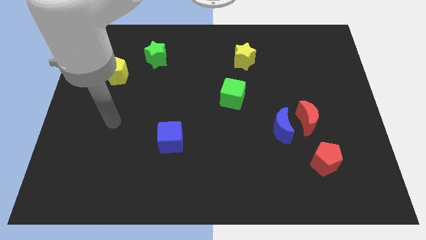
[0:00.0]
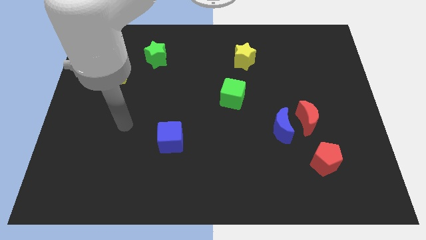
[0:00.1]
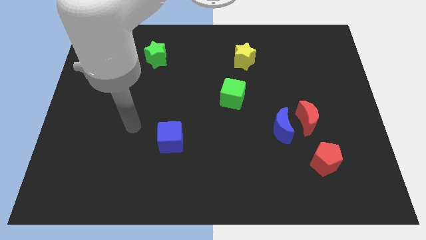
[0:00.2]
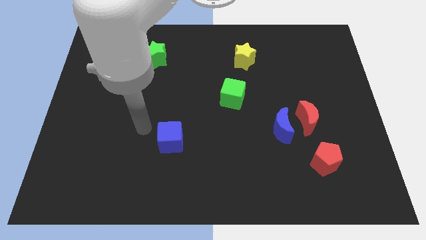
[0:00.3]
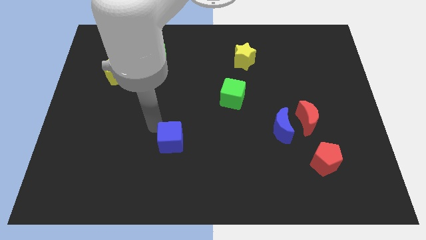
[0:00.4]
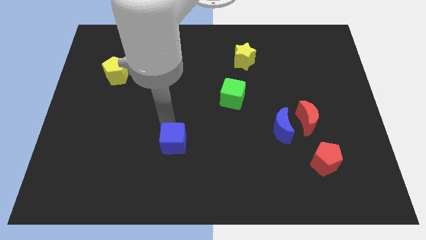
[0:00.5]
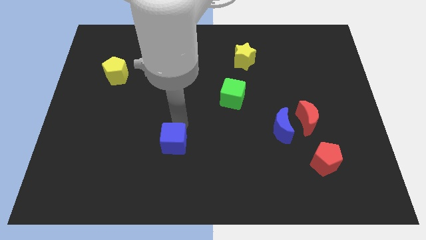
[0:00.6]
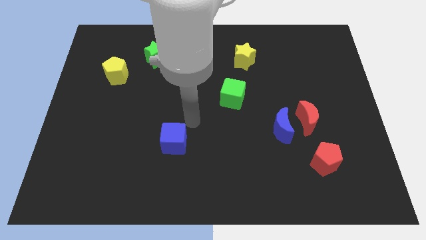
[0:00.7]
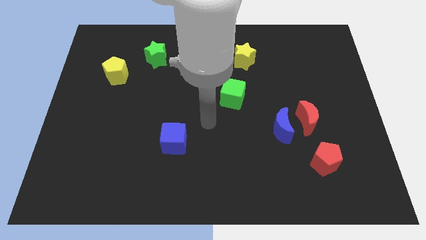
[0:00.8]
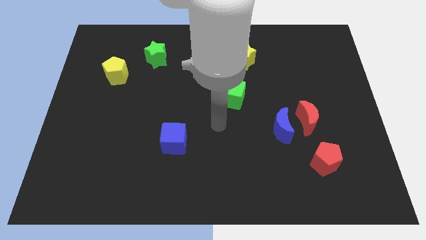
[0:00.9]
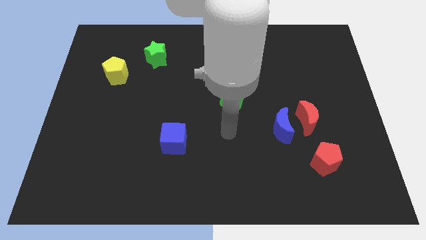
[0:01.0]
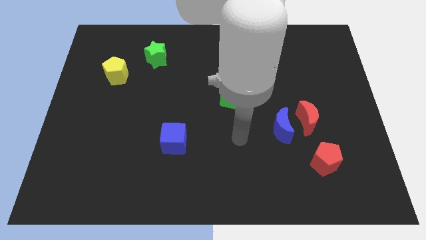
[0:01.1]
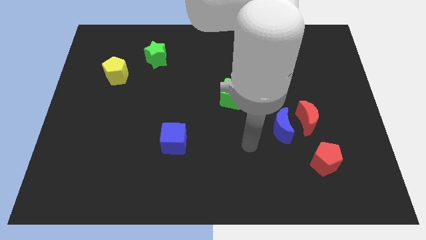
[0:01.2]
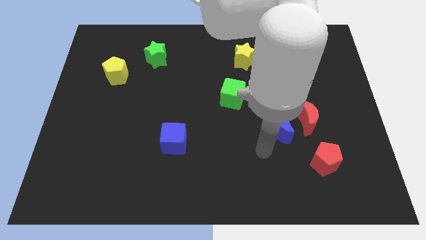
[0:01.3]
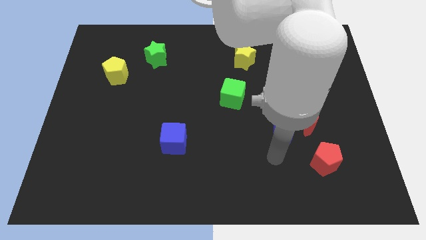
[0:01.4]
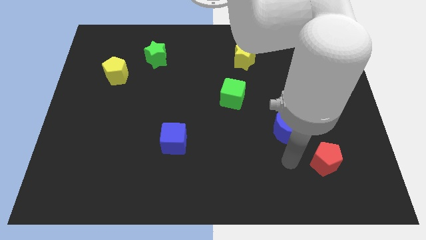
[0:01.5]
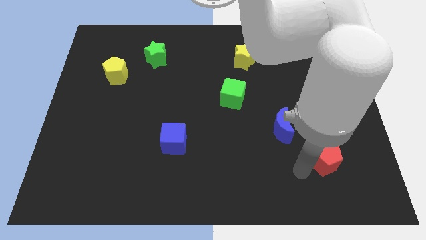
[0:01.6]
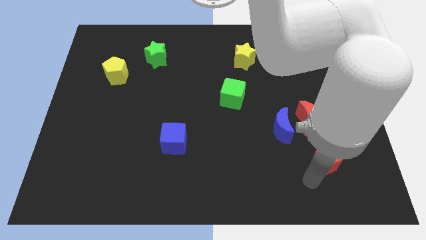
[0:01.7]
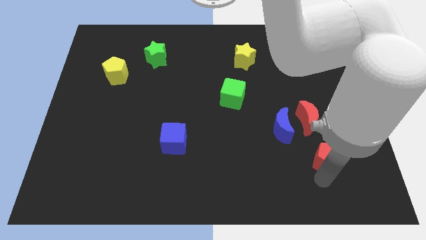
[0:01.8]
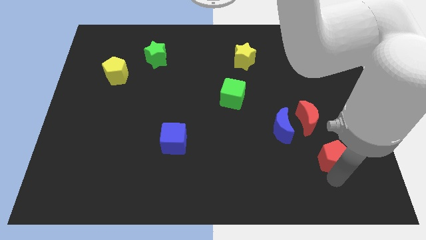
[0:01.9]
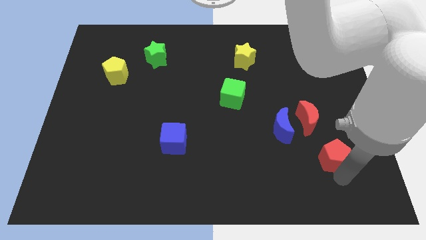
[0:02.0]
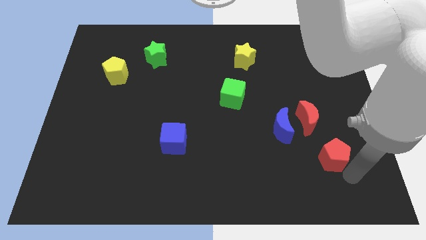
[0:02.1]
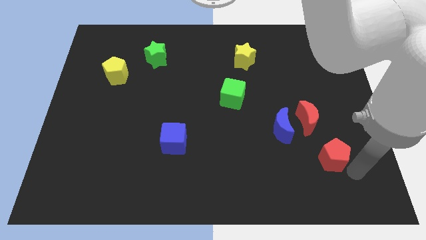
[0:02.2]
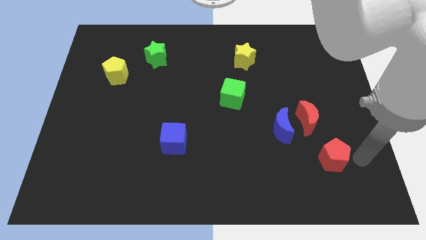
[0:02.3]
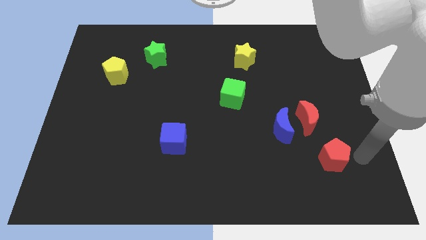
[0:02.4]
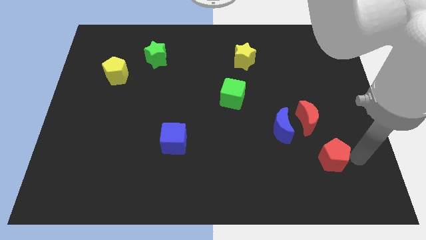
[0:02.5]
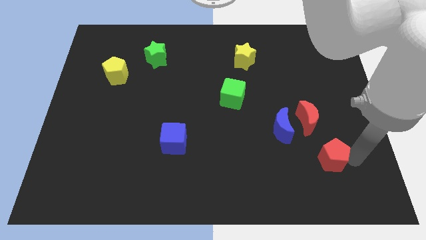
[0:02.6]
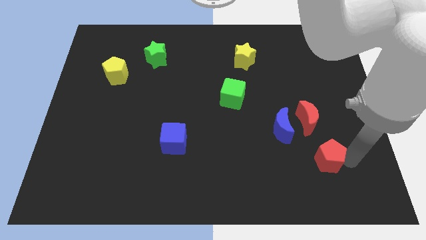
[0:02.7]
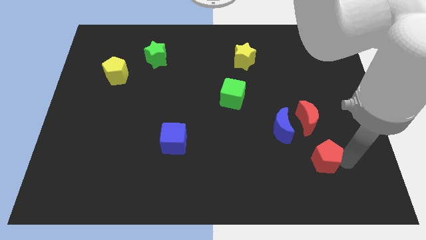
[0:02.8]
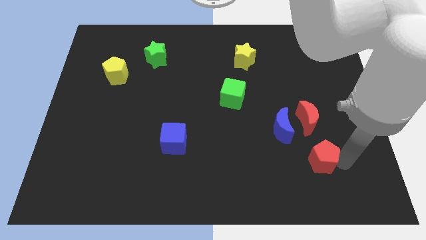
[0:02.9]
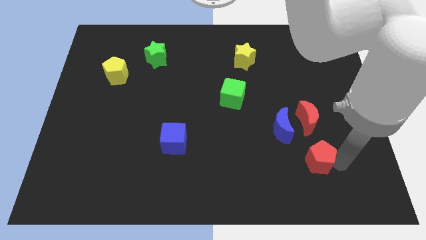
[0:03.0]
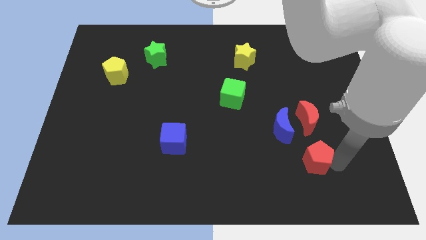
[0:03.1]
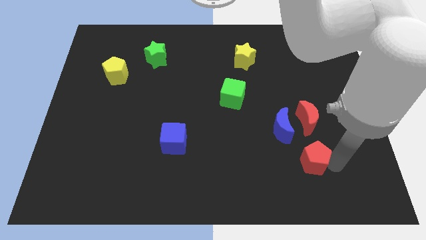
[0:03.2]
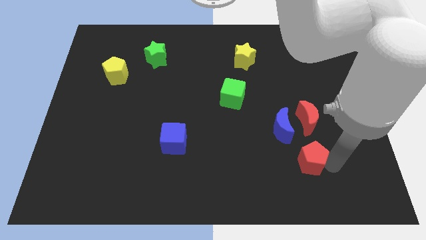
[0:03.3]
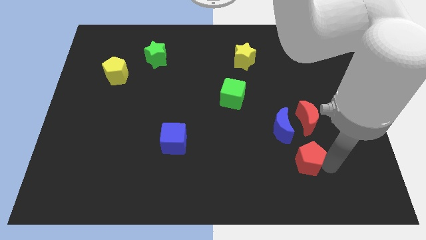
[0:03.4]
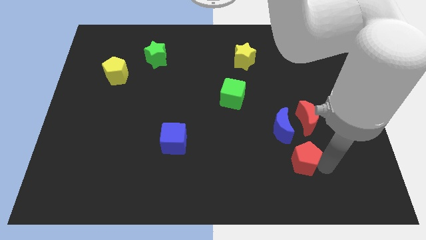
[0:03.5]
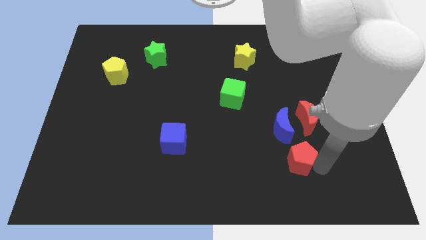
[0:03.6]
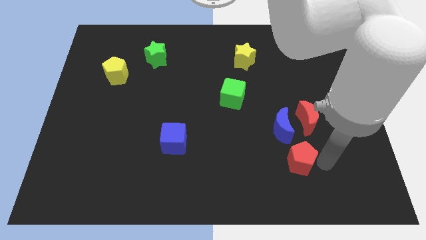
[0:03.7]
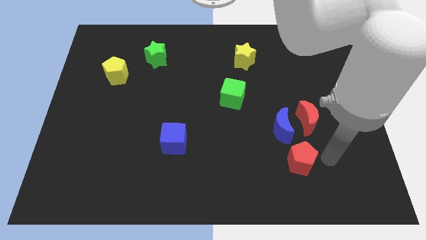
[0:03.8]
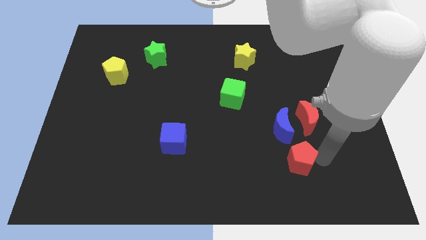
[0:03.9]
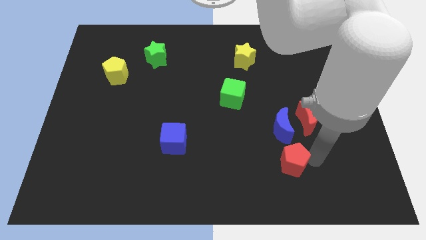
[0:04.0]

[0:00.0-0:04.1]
slightly move the red pentagon left

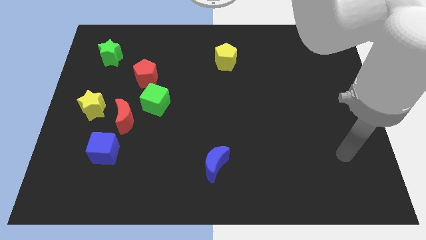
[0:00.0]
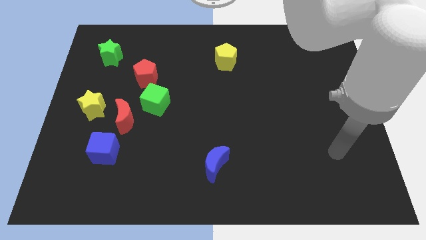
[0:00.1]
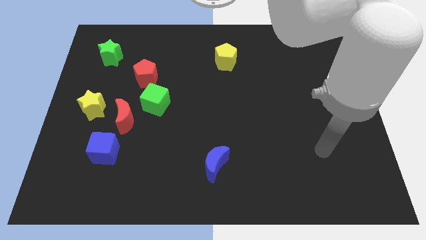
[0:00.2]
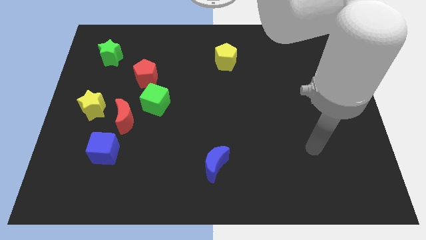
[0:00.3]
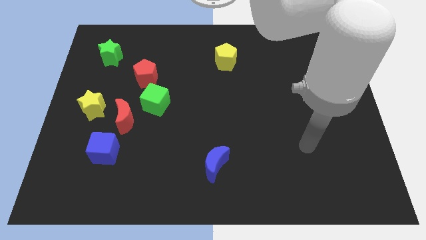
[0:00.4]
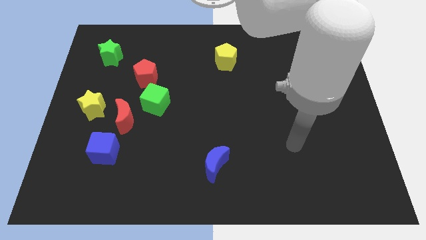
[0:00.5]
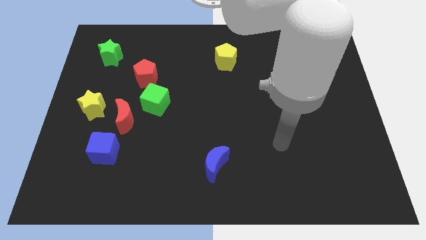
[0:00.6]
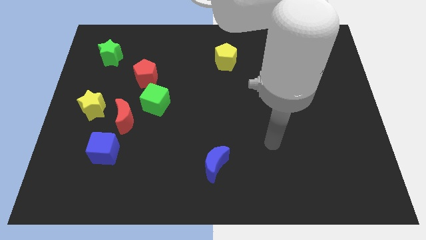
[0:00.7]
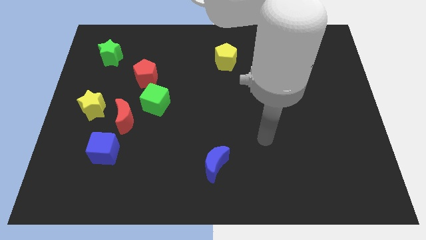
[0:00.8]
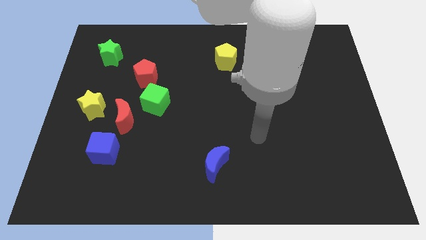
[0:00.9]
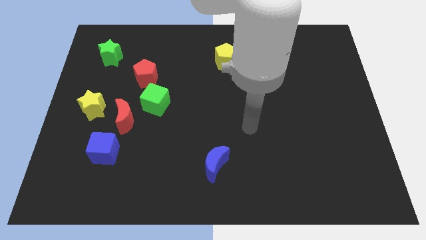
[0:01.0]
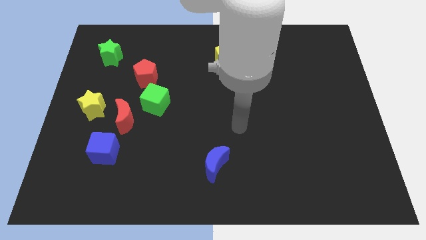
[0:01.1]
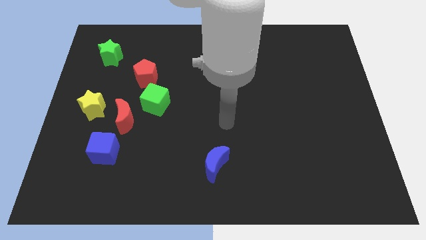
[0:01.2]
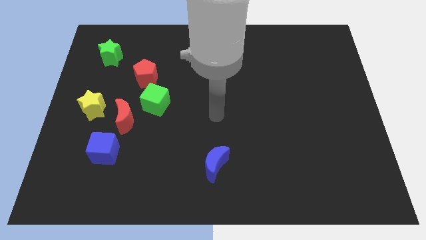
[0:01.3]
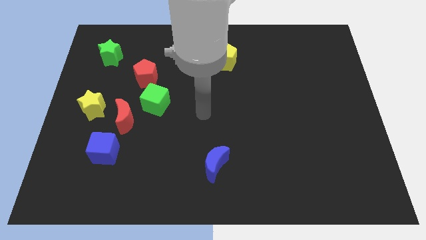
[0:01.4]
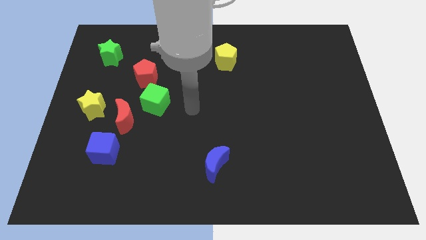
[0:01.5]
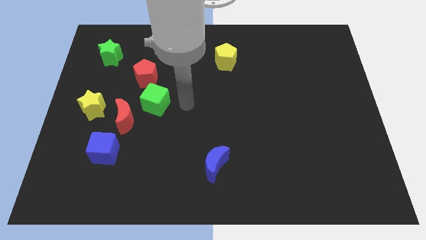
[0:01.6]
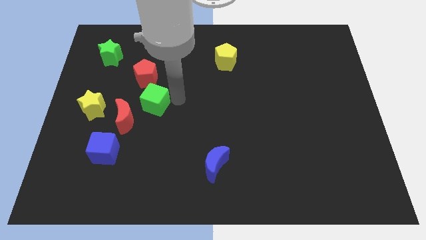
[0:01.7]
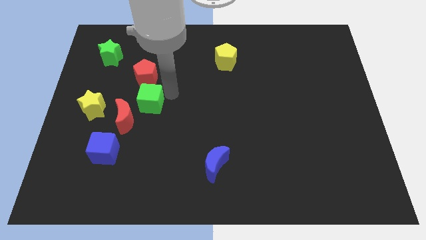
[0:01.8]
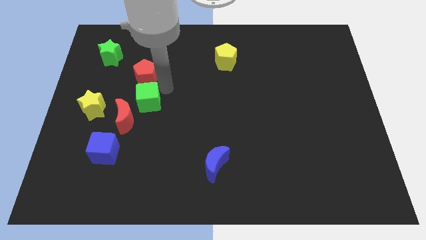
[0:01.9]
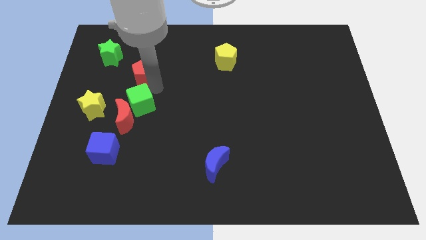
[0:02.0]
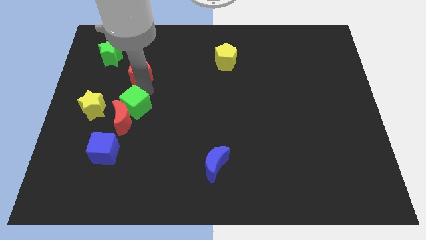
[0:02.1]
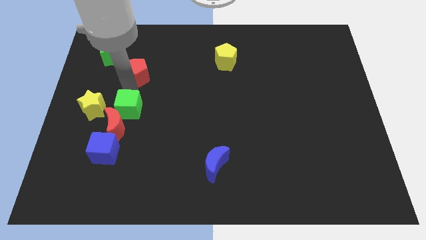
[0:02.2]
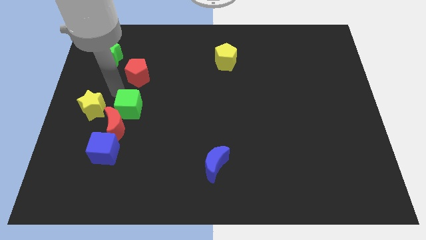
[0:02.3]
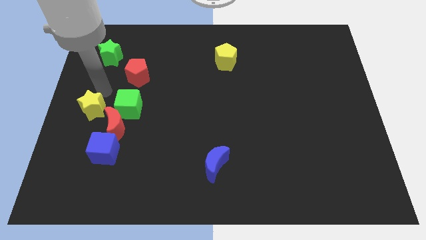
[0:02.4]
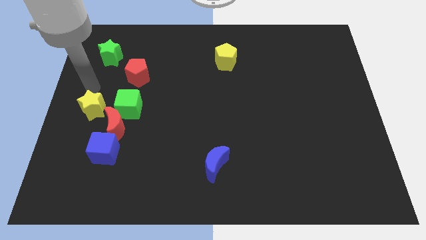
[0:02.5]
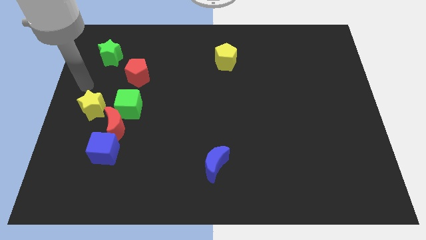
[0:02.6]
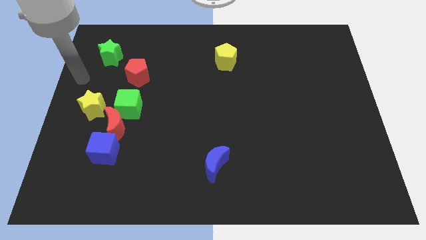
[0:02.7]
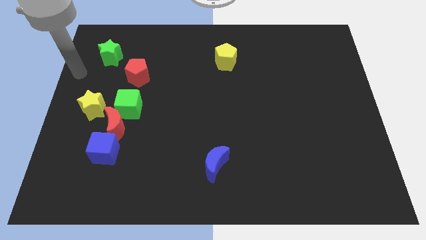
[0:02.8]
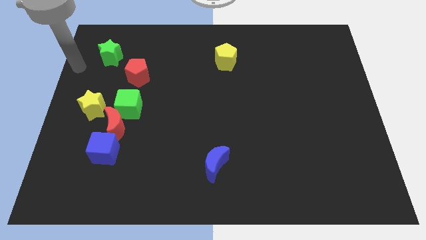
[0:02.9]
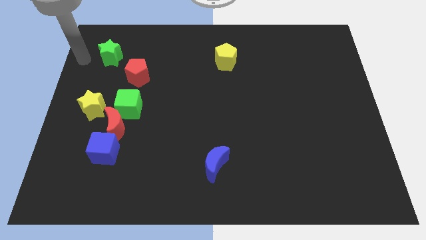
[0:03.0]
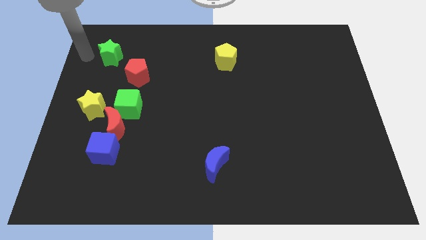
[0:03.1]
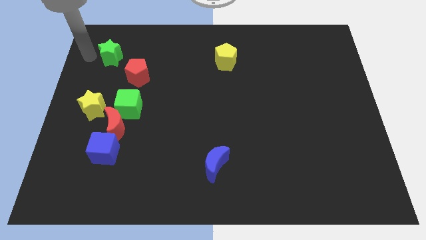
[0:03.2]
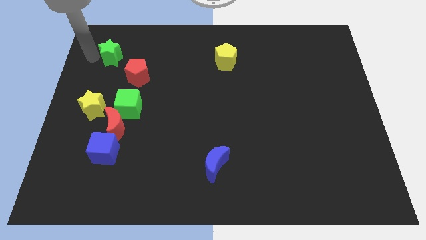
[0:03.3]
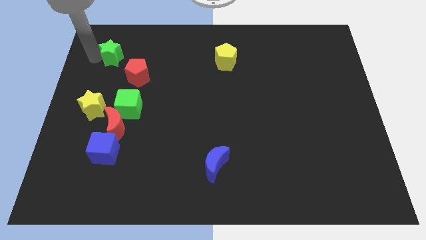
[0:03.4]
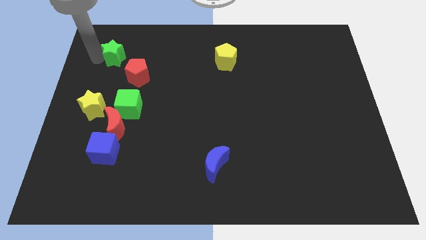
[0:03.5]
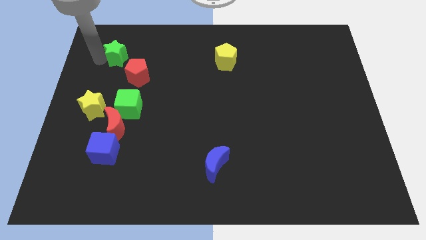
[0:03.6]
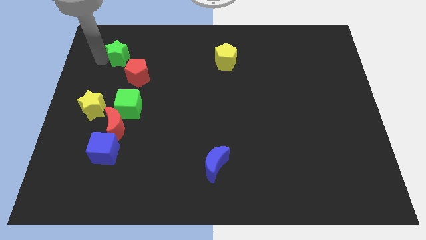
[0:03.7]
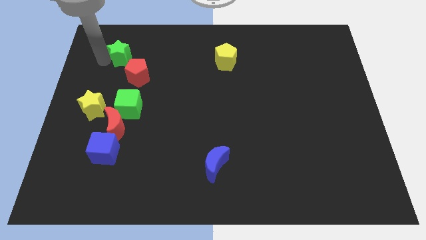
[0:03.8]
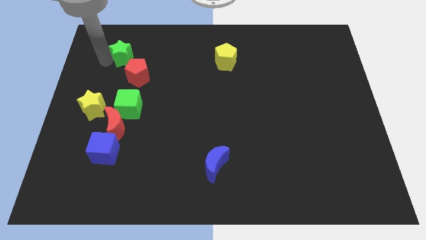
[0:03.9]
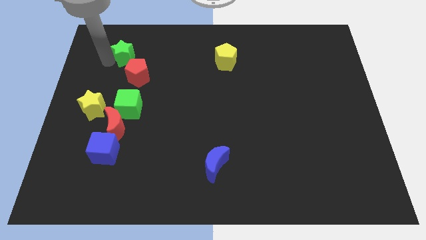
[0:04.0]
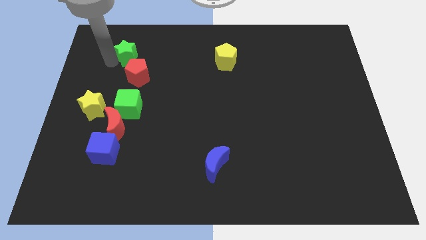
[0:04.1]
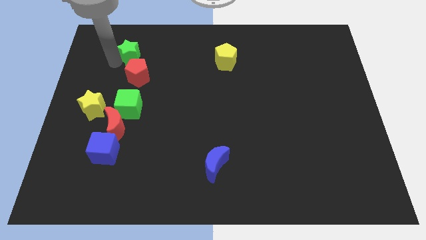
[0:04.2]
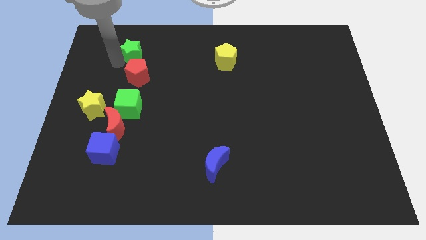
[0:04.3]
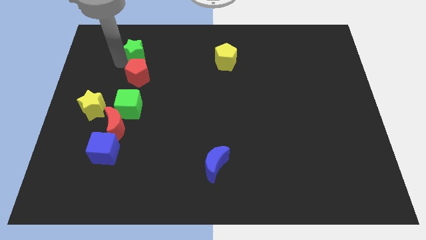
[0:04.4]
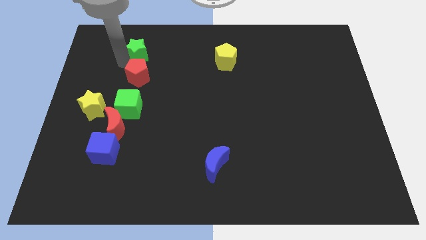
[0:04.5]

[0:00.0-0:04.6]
push the green star to the right somewhat
